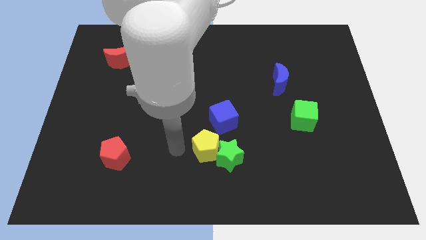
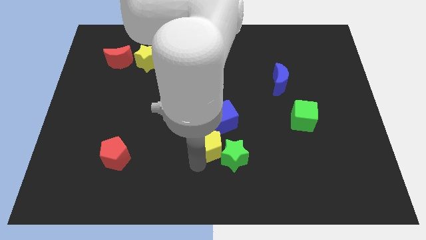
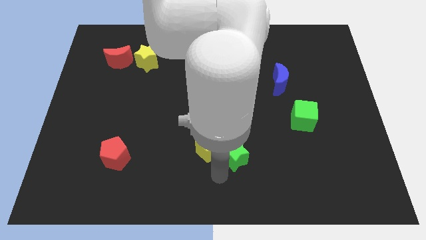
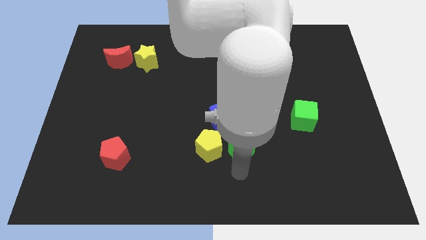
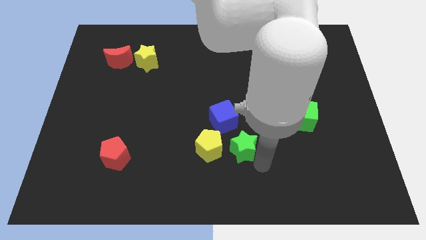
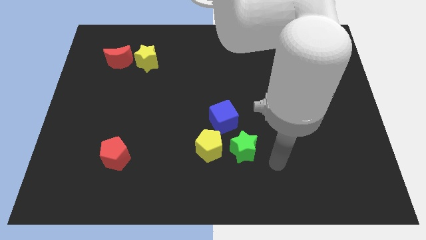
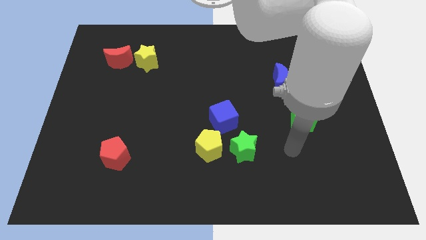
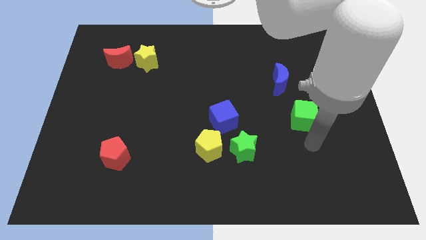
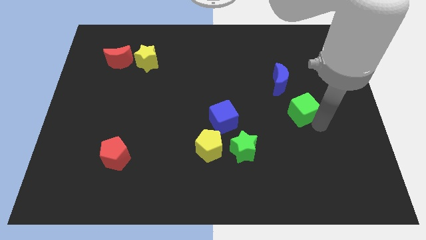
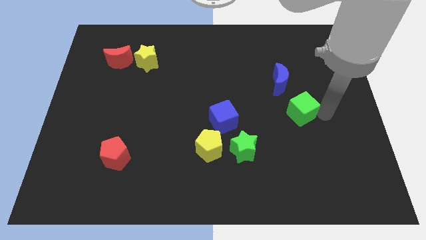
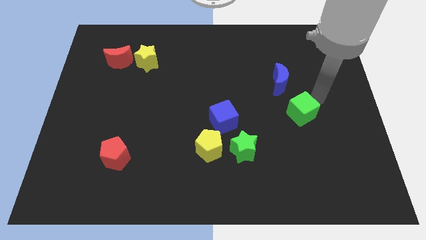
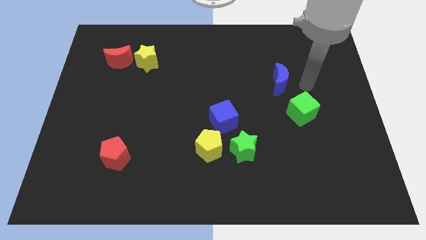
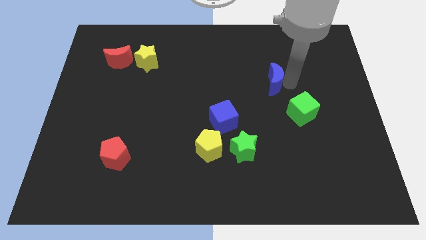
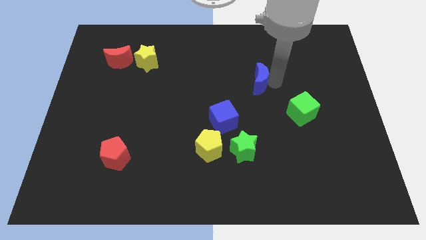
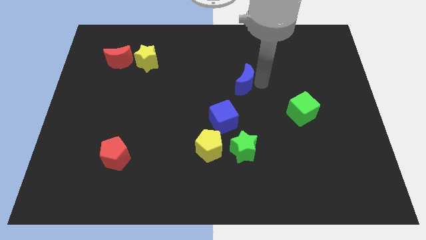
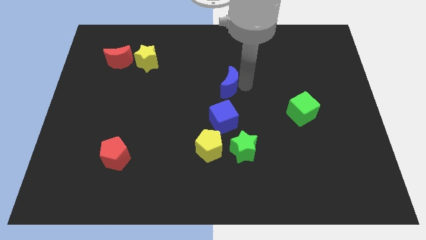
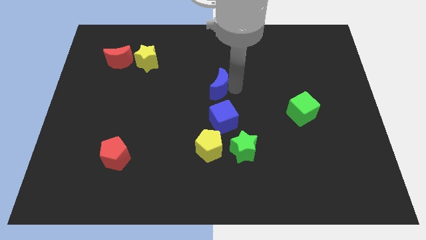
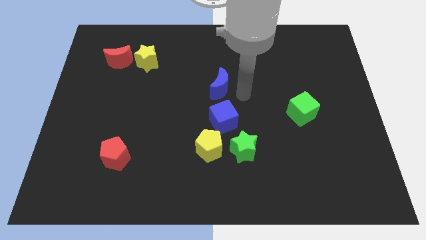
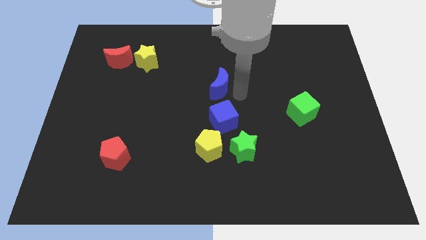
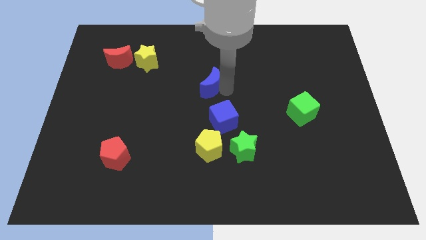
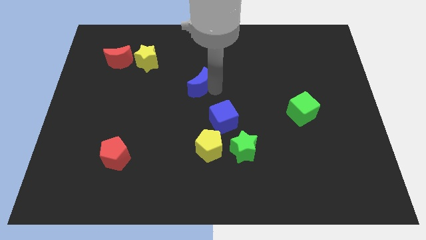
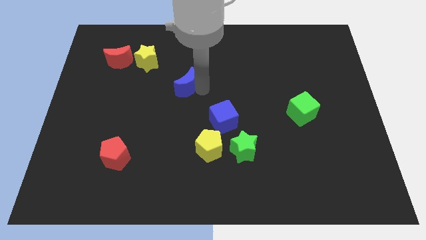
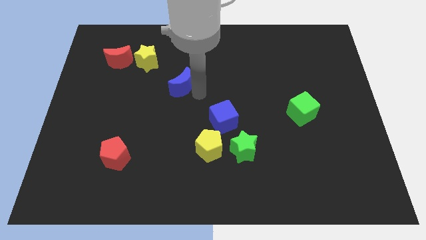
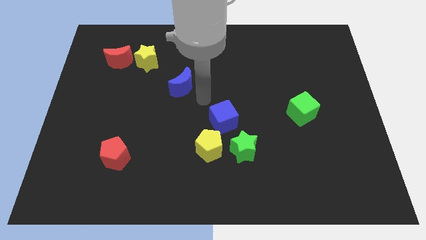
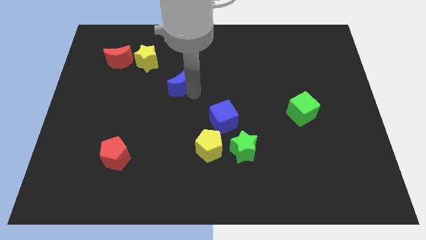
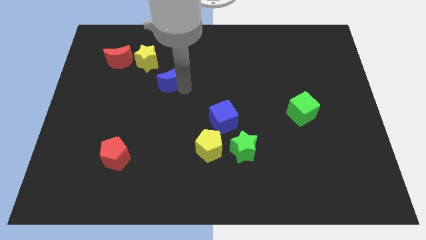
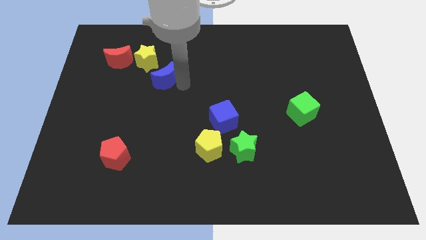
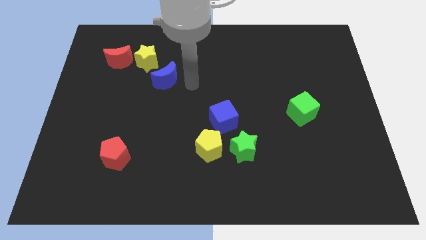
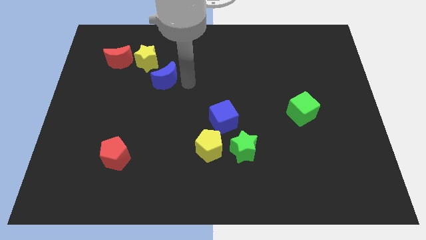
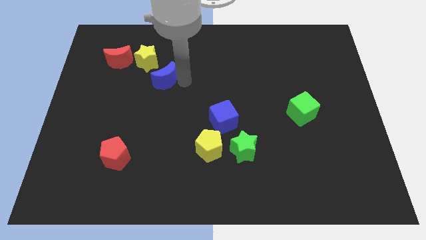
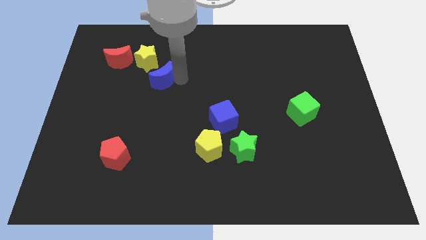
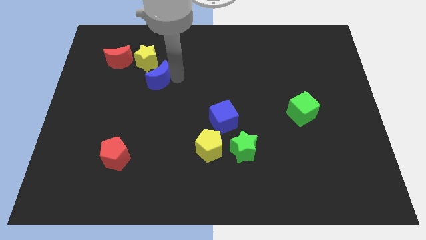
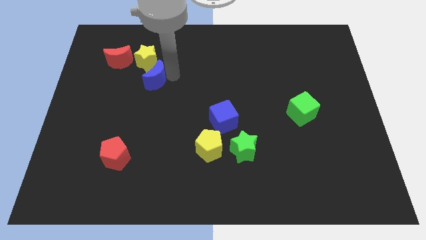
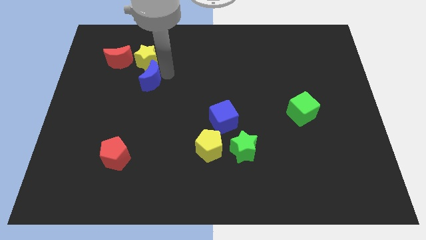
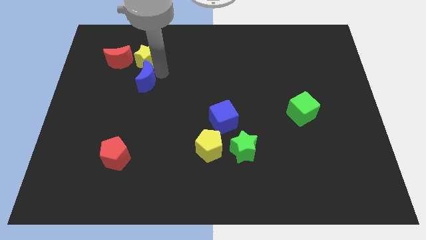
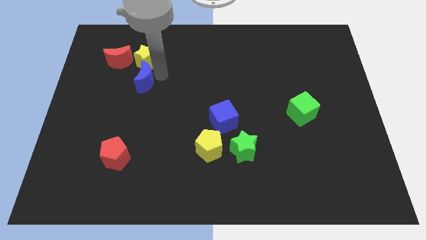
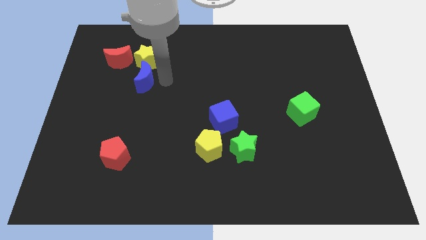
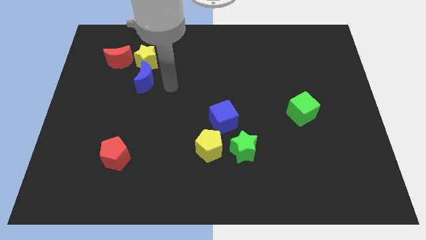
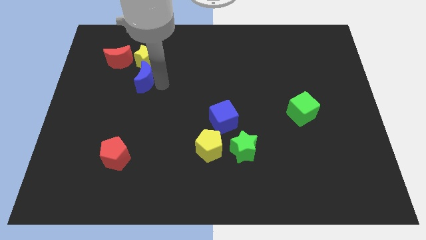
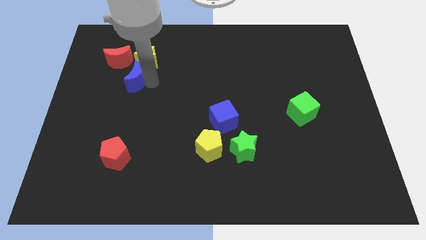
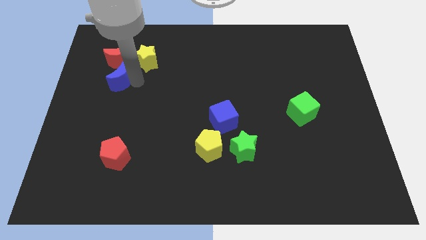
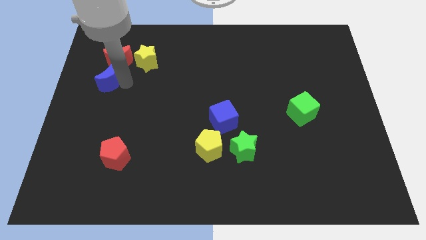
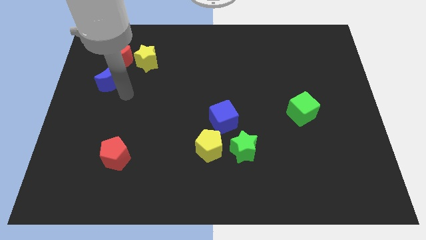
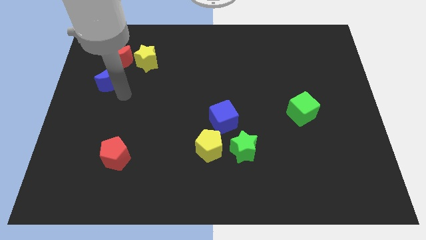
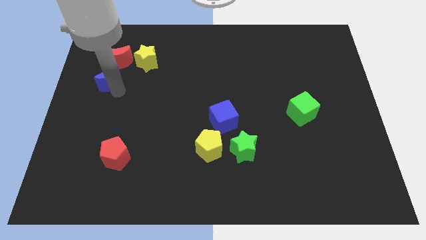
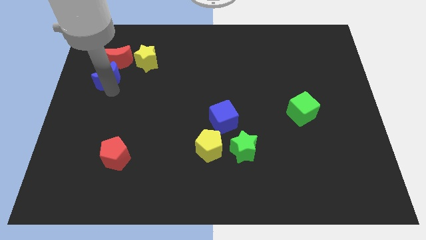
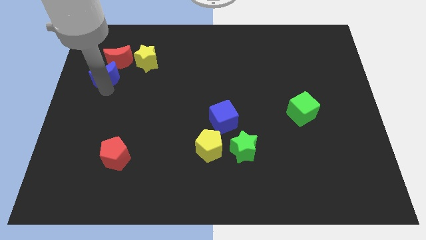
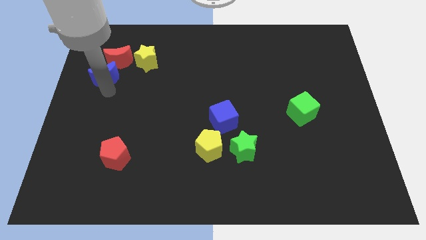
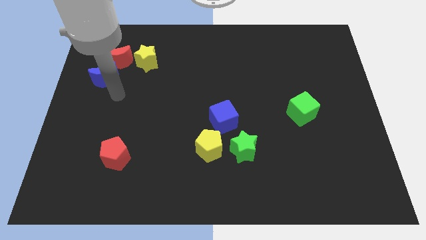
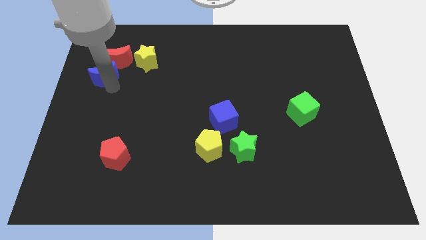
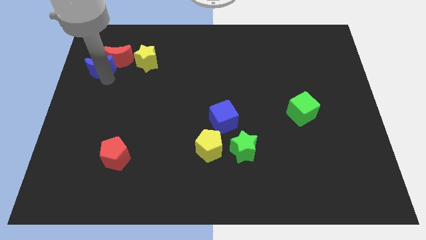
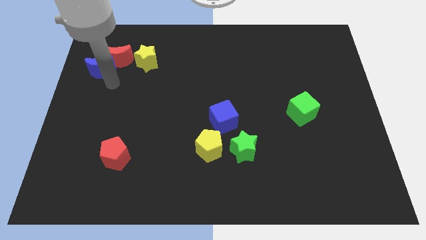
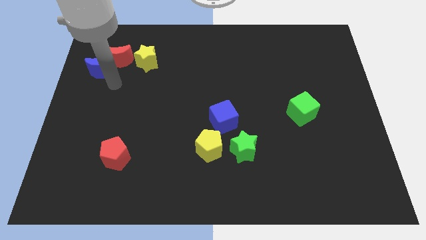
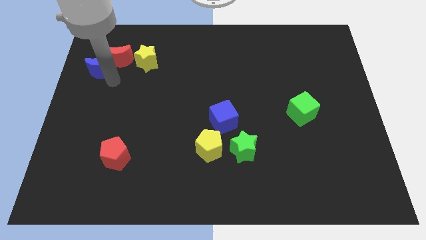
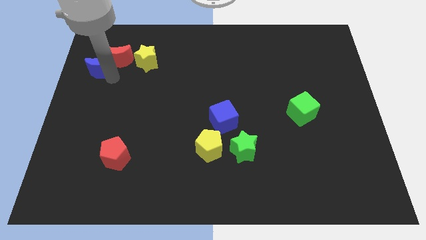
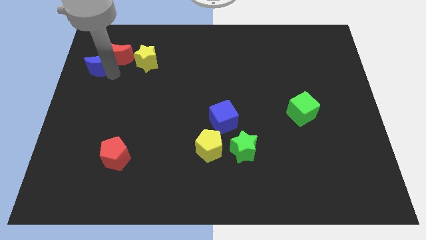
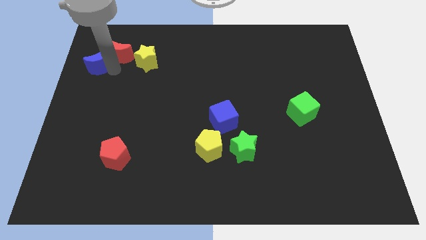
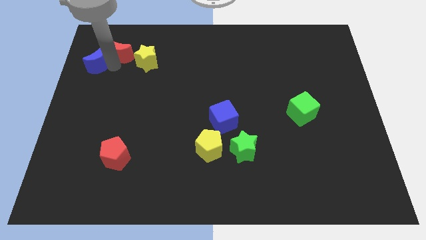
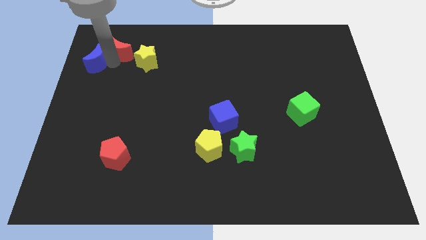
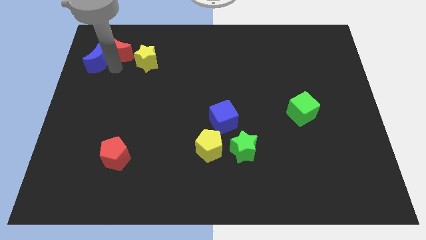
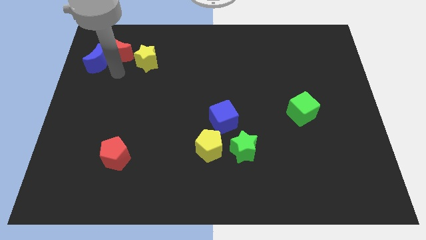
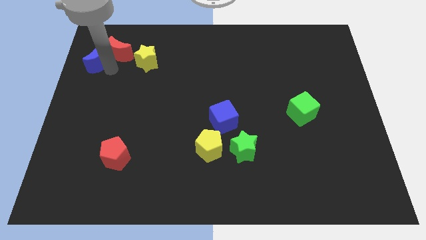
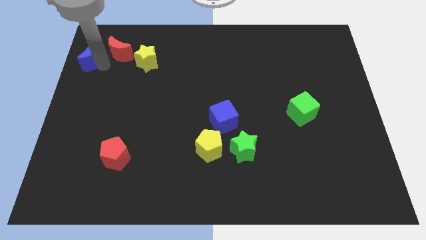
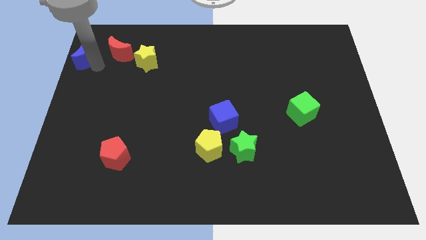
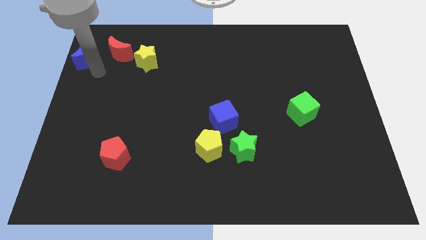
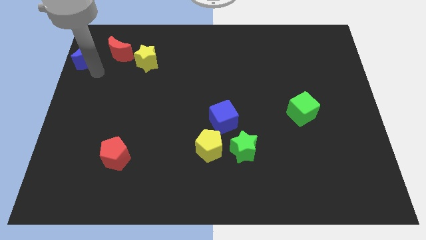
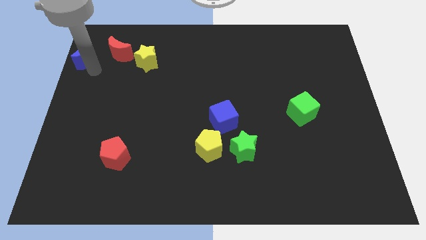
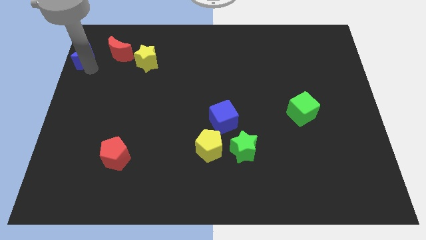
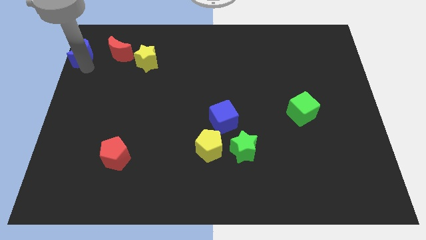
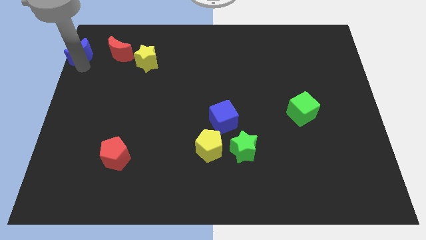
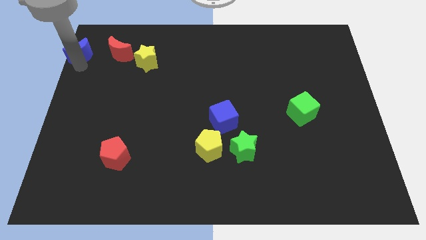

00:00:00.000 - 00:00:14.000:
put the blue moon to the upper left corner
